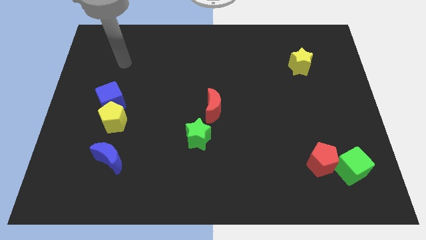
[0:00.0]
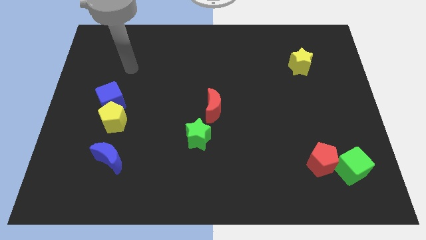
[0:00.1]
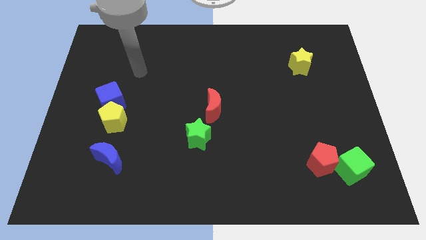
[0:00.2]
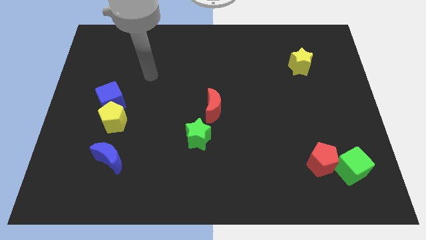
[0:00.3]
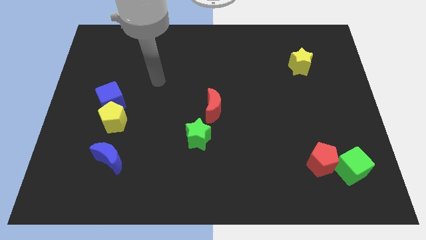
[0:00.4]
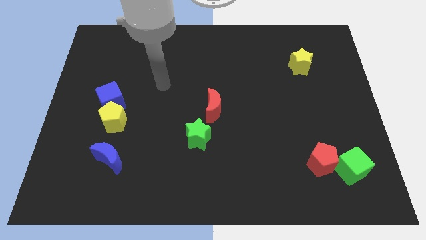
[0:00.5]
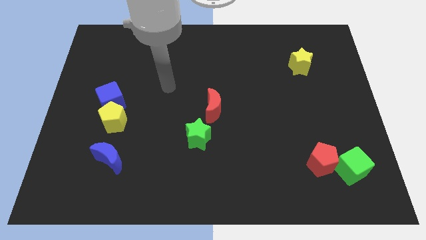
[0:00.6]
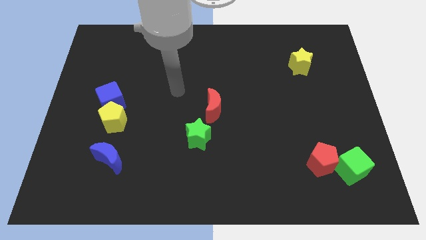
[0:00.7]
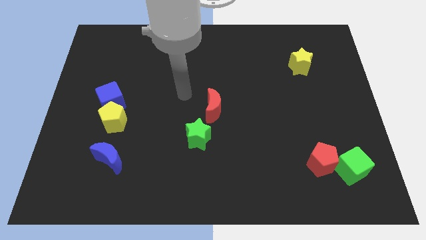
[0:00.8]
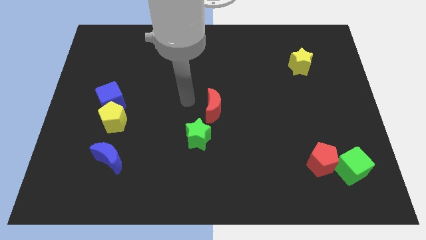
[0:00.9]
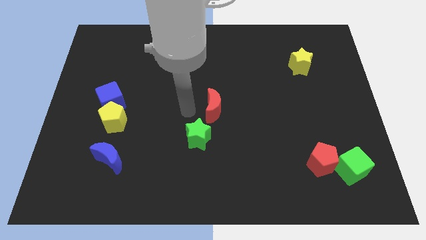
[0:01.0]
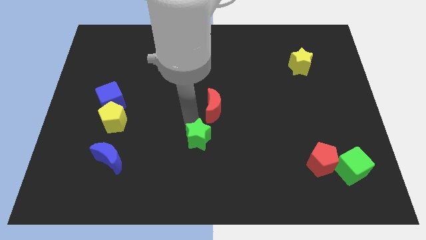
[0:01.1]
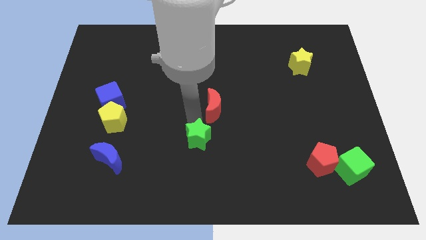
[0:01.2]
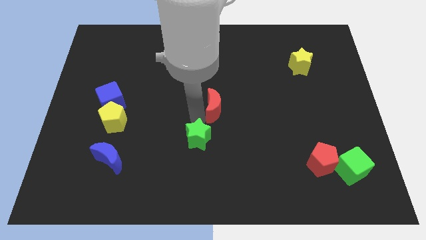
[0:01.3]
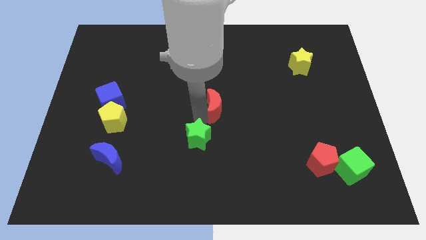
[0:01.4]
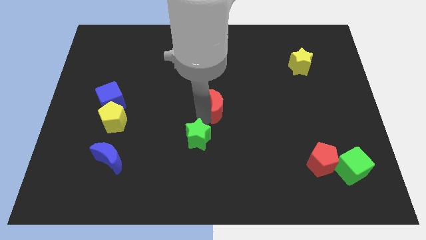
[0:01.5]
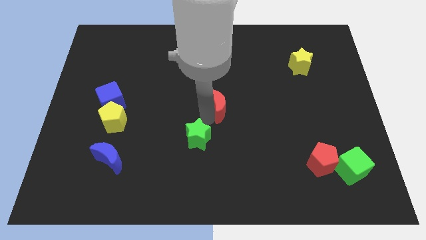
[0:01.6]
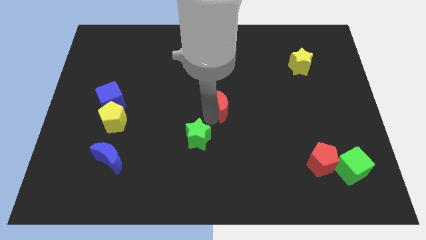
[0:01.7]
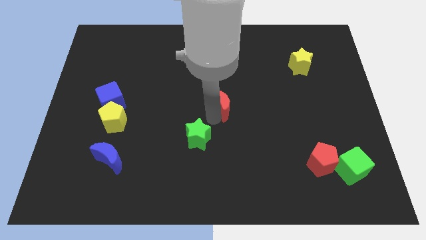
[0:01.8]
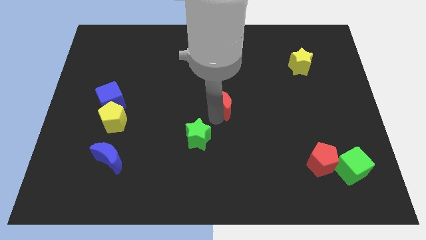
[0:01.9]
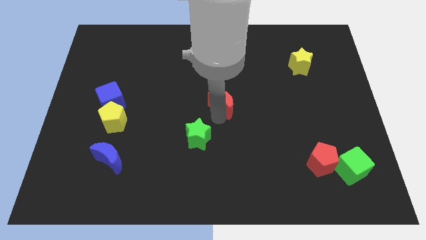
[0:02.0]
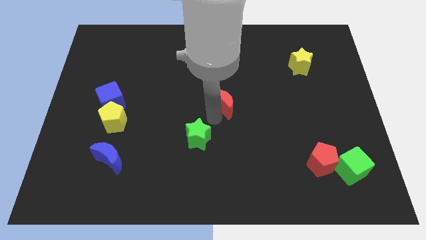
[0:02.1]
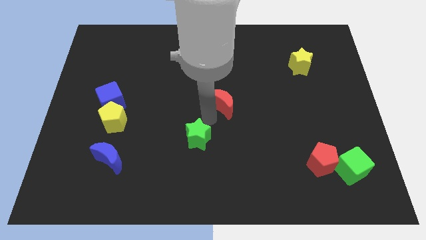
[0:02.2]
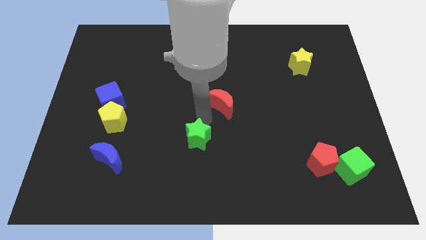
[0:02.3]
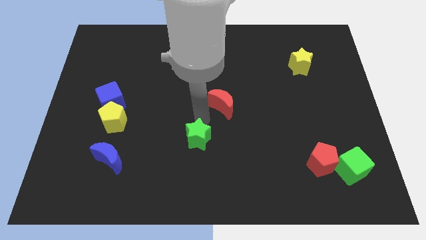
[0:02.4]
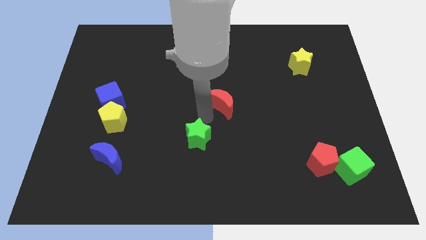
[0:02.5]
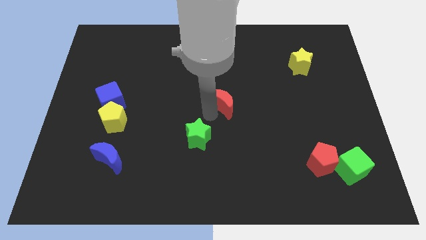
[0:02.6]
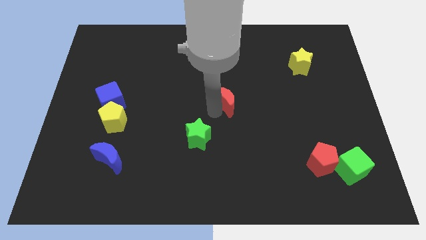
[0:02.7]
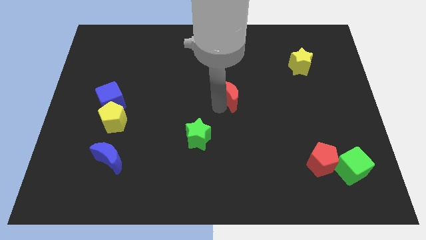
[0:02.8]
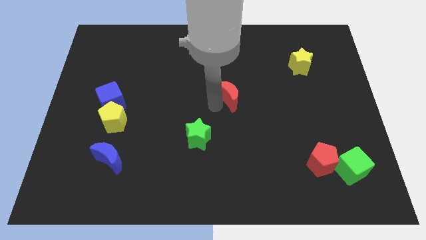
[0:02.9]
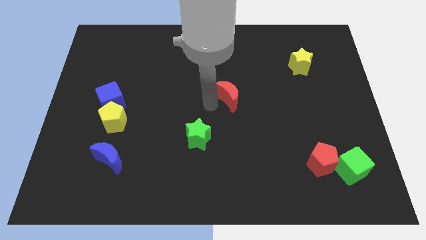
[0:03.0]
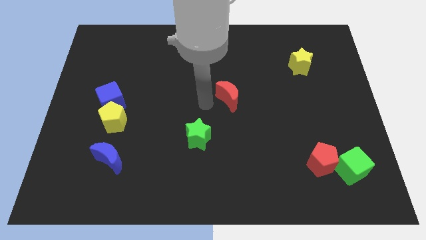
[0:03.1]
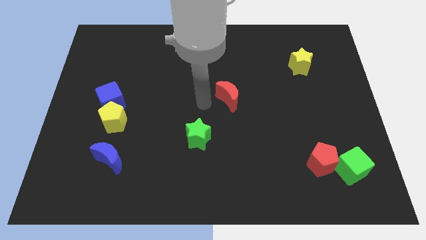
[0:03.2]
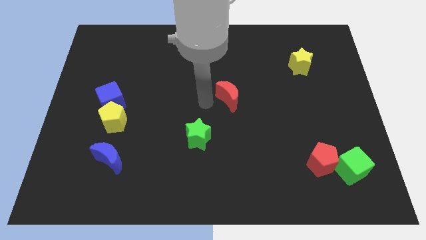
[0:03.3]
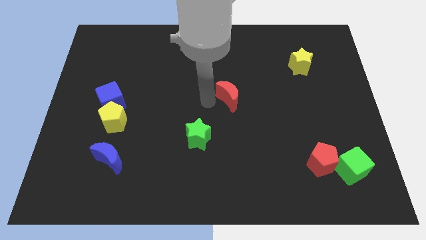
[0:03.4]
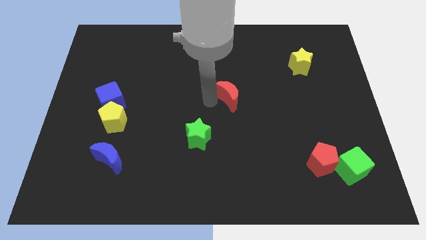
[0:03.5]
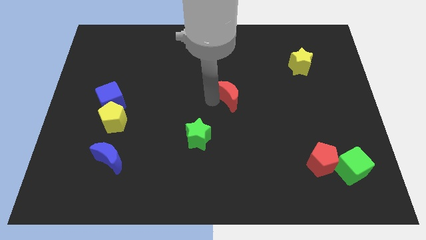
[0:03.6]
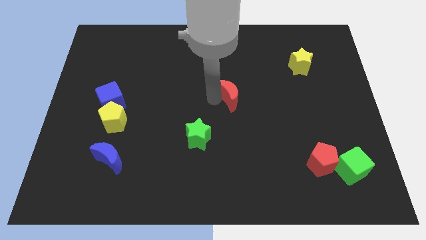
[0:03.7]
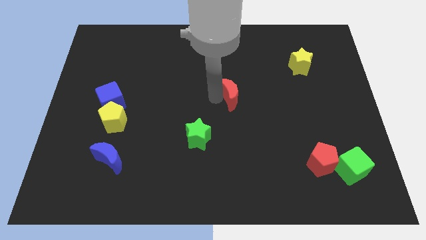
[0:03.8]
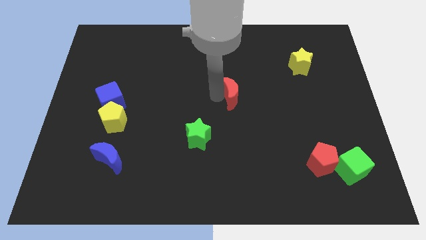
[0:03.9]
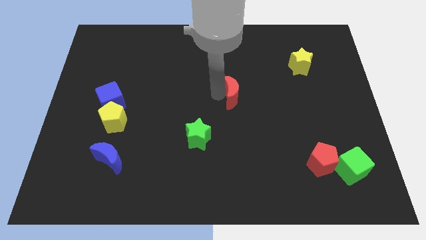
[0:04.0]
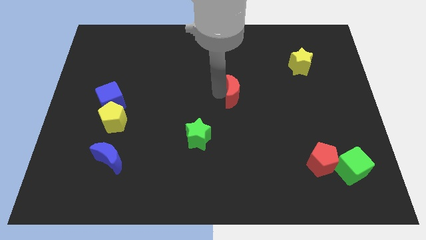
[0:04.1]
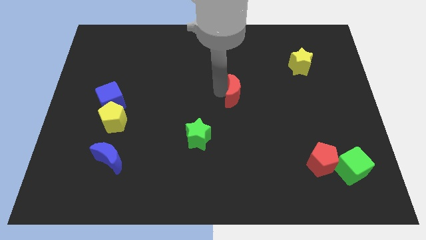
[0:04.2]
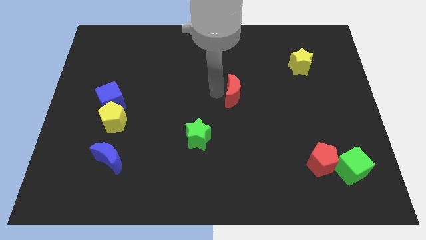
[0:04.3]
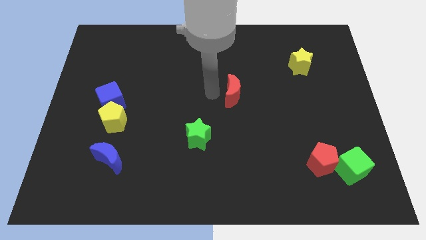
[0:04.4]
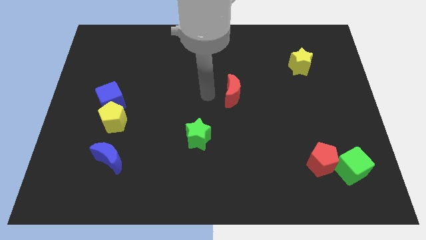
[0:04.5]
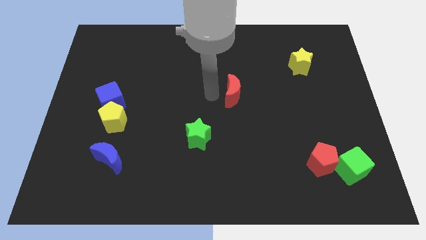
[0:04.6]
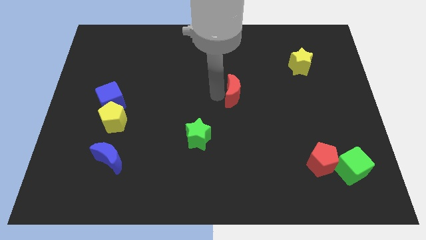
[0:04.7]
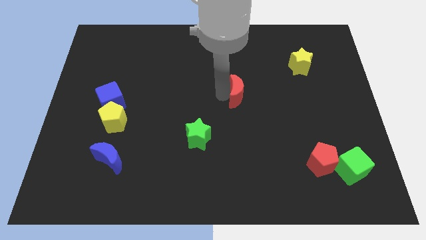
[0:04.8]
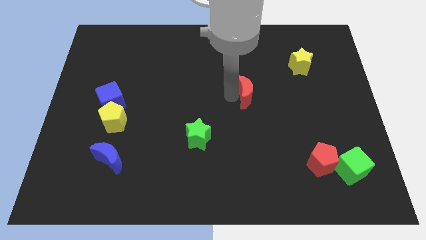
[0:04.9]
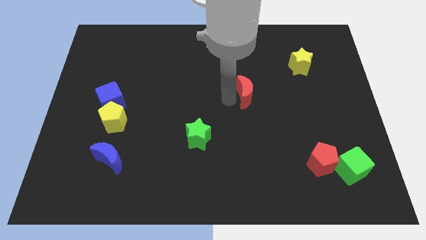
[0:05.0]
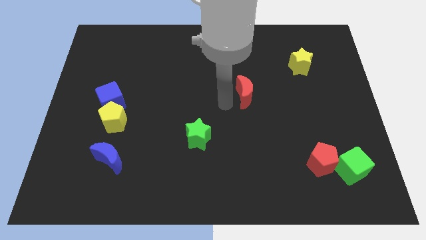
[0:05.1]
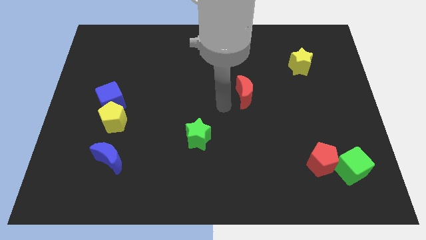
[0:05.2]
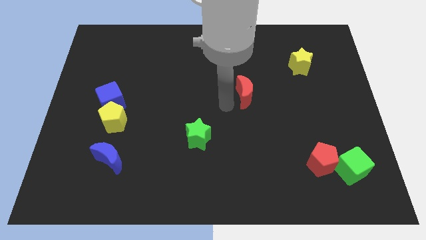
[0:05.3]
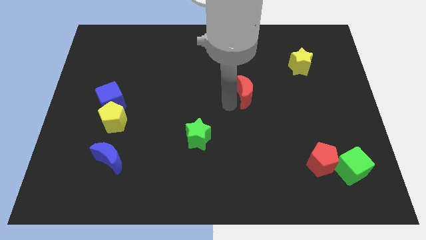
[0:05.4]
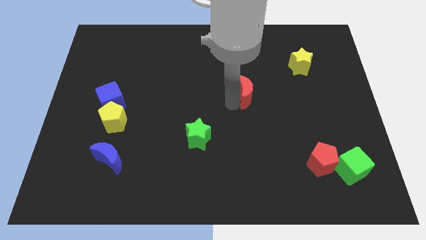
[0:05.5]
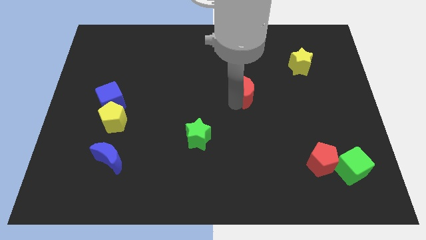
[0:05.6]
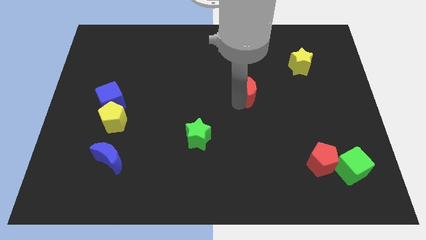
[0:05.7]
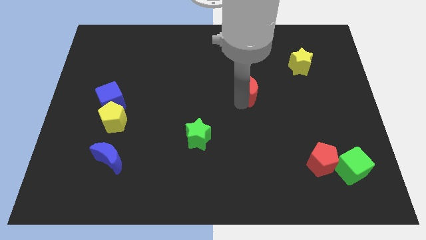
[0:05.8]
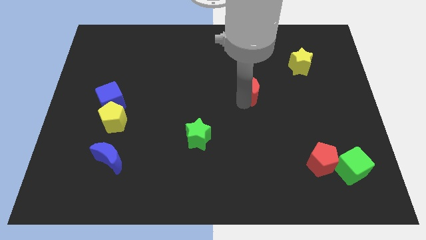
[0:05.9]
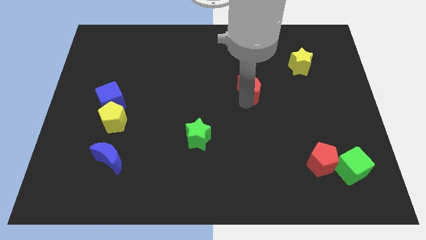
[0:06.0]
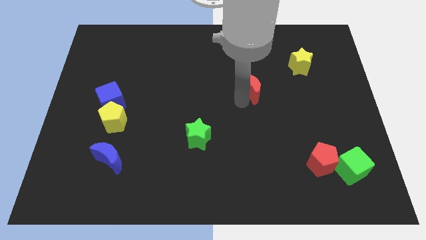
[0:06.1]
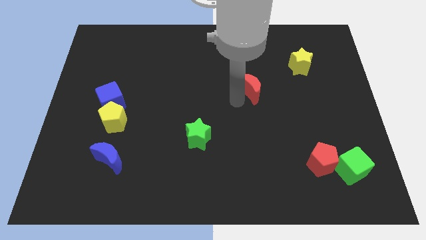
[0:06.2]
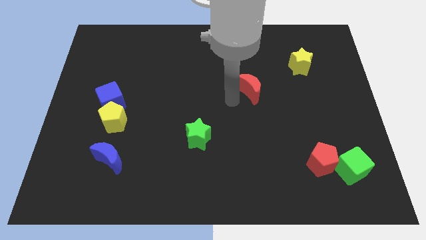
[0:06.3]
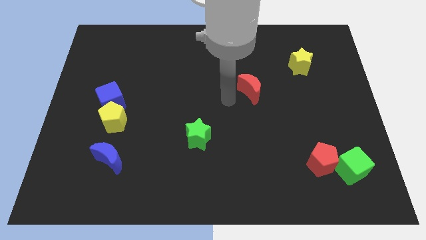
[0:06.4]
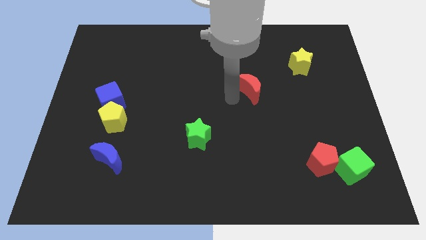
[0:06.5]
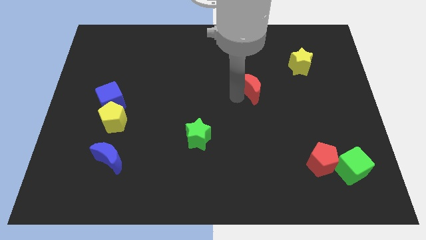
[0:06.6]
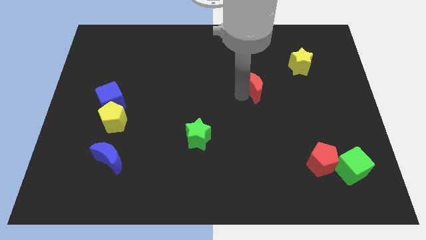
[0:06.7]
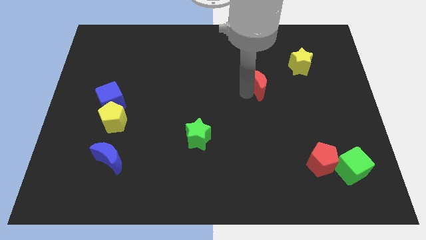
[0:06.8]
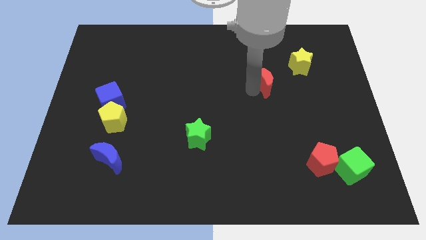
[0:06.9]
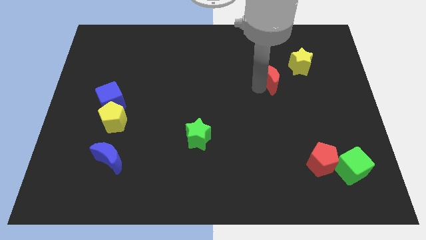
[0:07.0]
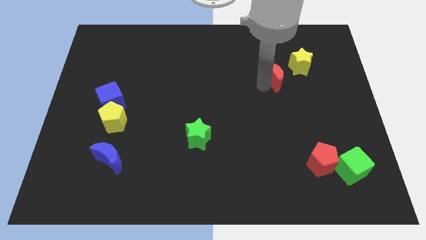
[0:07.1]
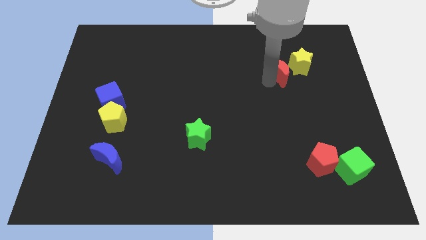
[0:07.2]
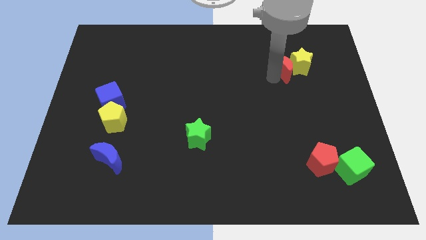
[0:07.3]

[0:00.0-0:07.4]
push the red moon close to the yellow star

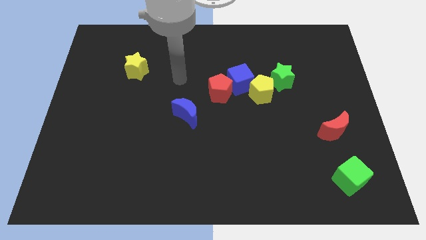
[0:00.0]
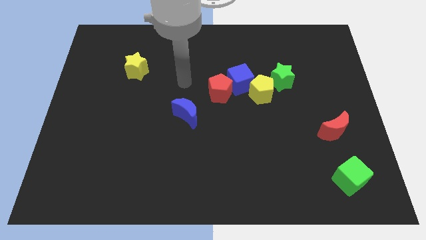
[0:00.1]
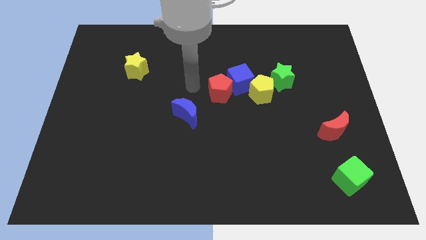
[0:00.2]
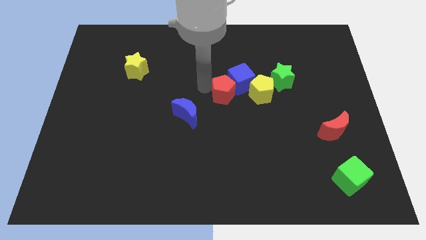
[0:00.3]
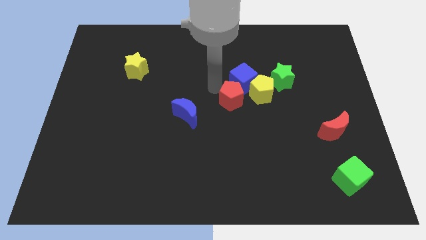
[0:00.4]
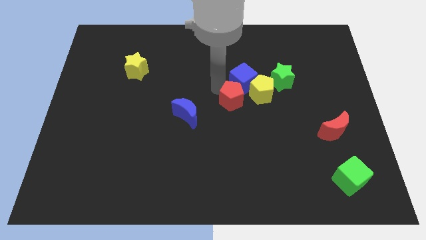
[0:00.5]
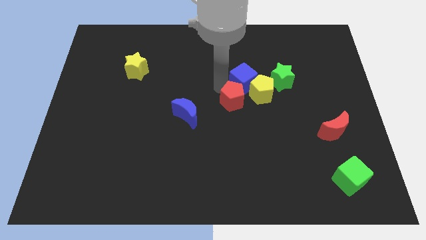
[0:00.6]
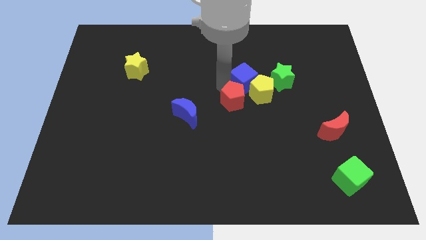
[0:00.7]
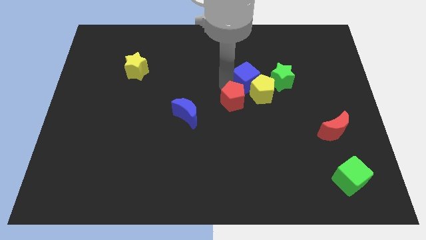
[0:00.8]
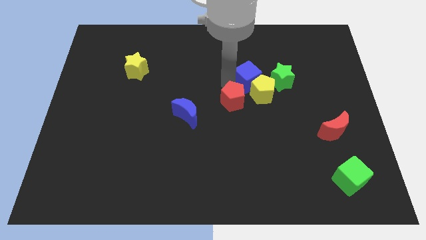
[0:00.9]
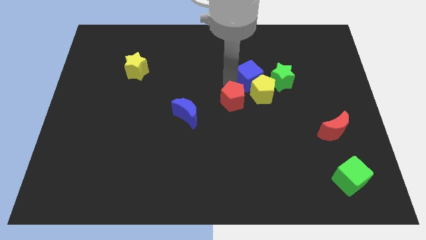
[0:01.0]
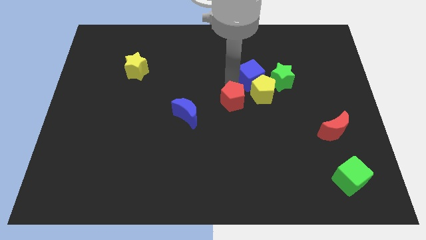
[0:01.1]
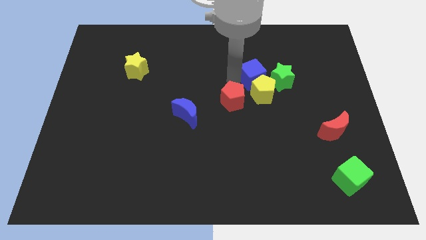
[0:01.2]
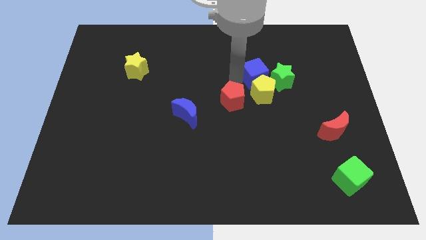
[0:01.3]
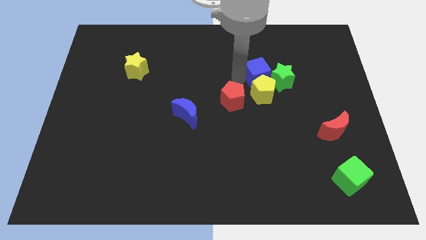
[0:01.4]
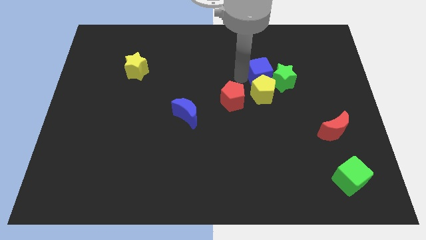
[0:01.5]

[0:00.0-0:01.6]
move the blue cube towards the green star
